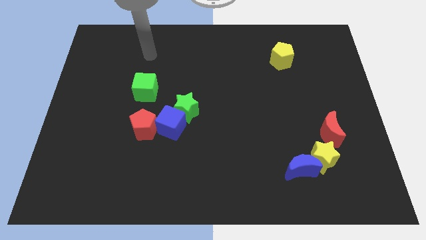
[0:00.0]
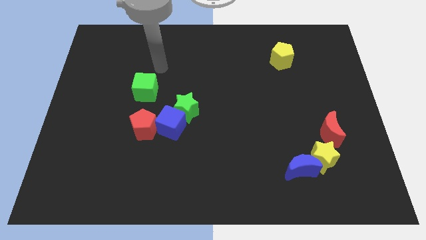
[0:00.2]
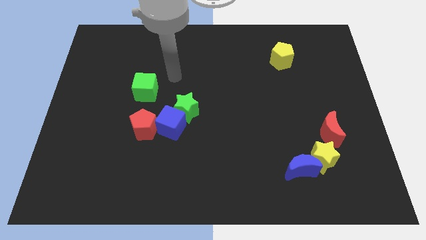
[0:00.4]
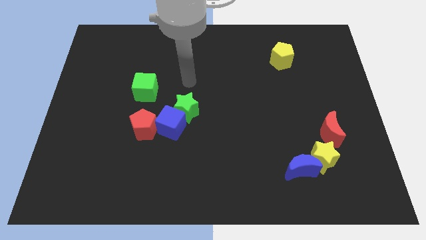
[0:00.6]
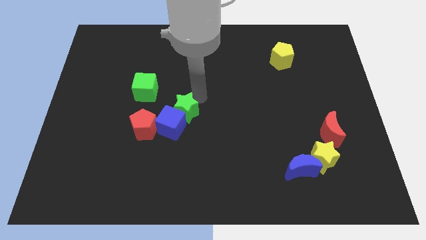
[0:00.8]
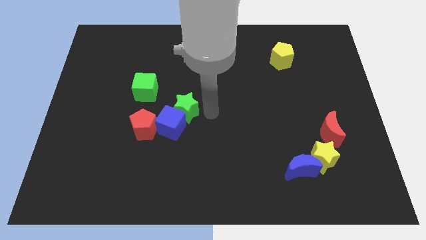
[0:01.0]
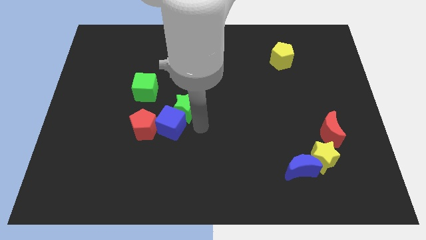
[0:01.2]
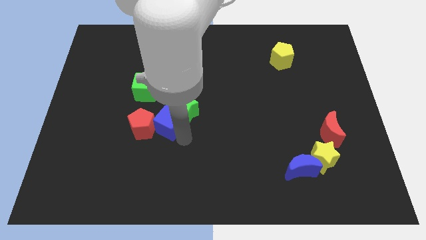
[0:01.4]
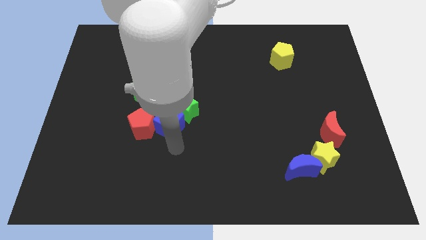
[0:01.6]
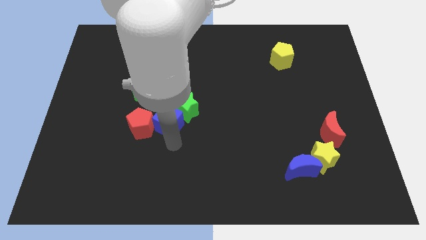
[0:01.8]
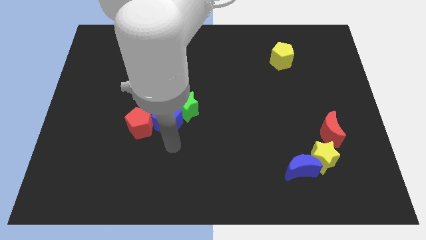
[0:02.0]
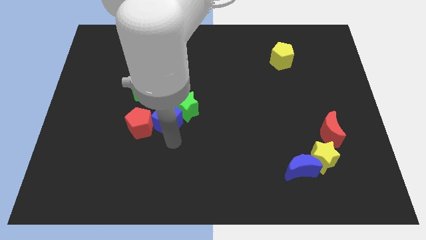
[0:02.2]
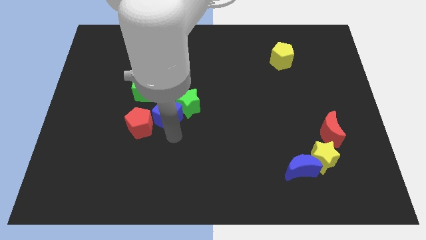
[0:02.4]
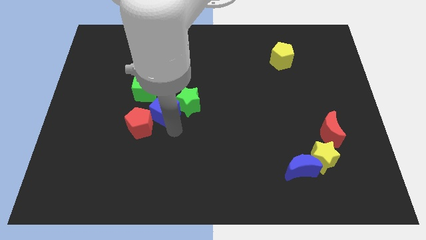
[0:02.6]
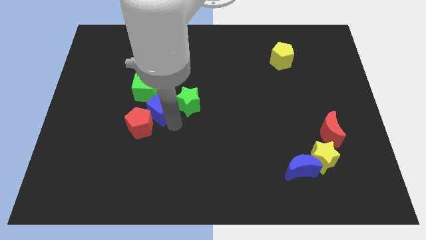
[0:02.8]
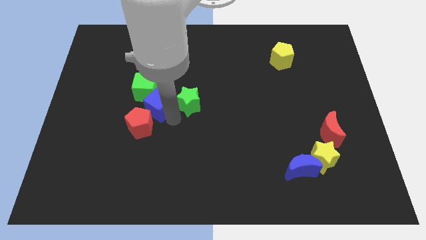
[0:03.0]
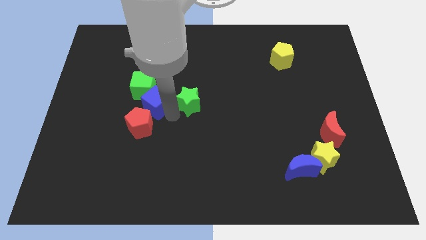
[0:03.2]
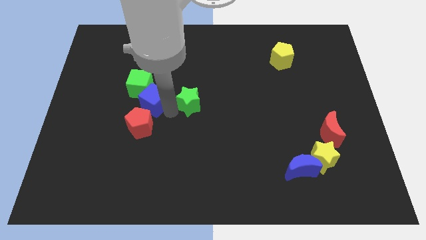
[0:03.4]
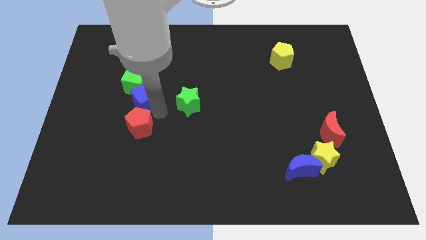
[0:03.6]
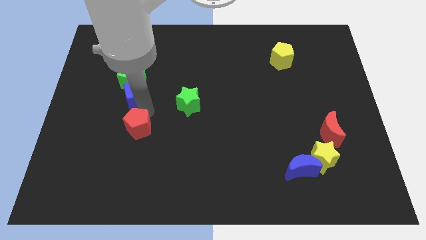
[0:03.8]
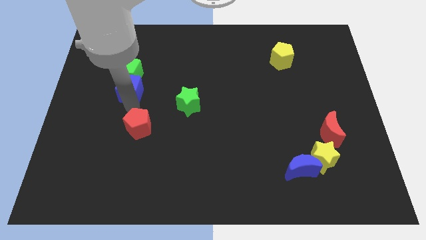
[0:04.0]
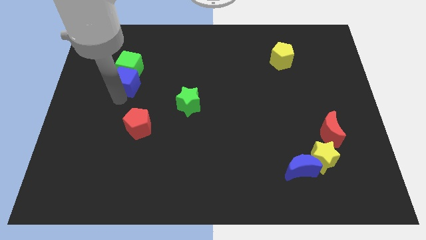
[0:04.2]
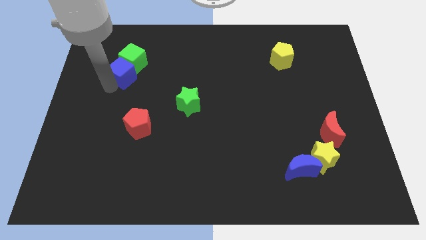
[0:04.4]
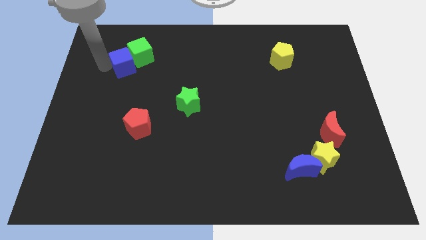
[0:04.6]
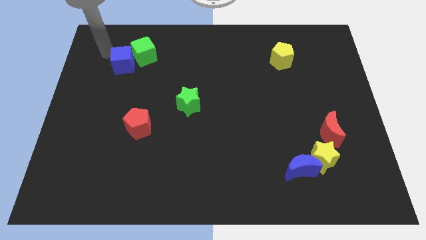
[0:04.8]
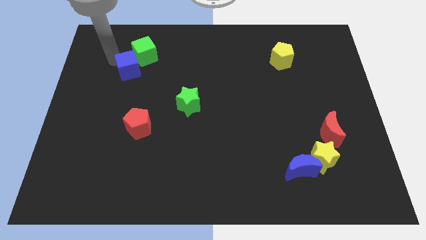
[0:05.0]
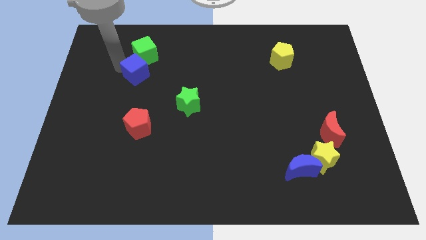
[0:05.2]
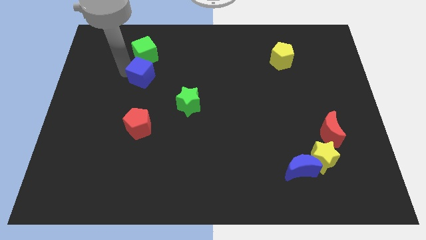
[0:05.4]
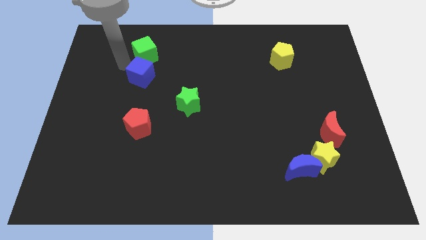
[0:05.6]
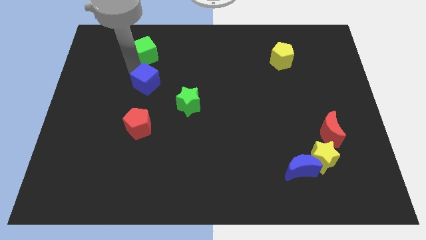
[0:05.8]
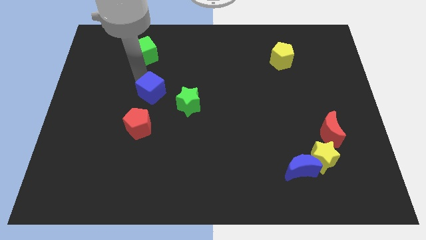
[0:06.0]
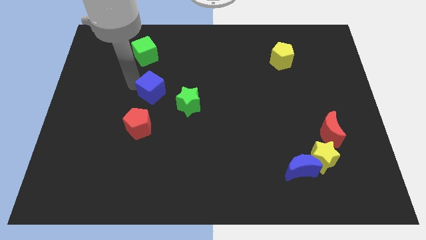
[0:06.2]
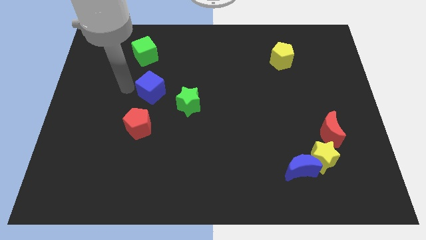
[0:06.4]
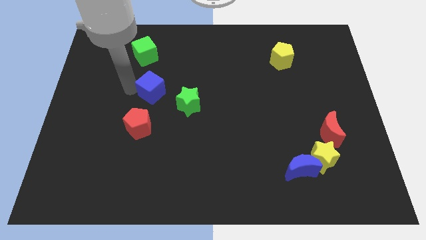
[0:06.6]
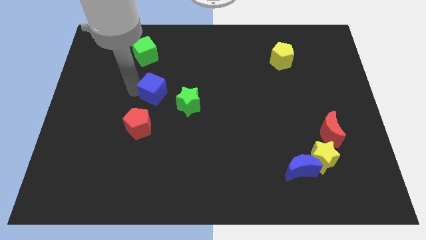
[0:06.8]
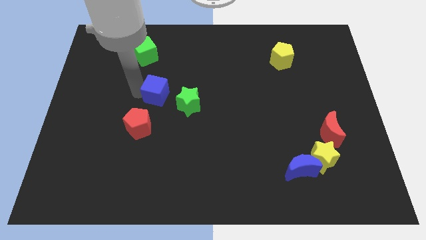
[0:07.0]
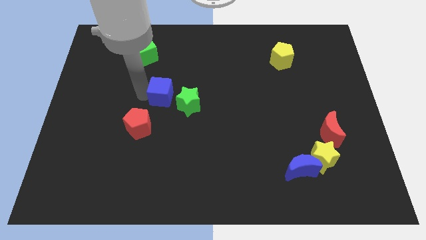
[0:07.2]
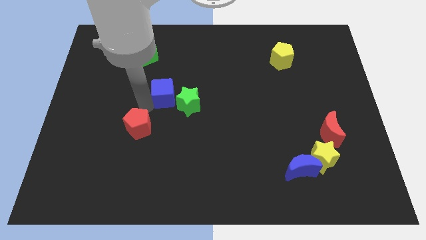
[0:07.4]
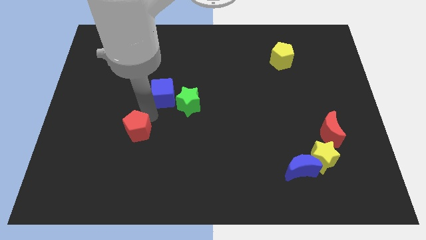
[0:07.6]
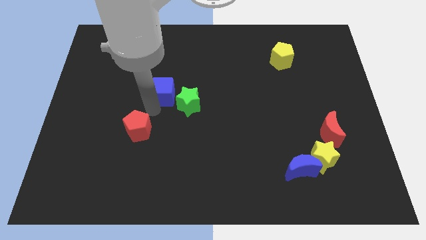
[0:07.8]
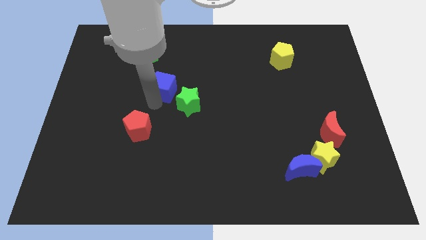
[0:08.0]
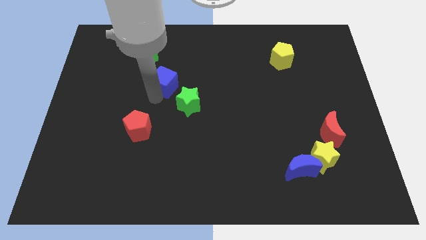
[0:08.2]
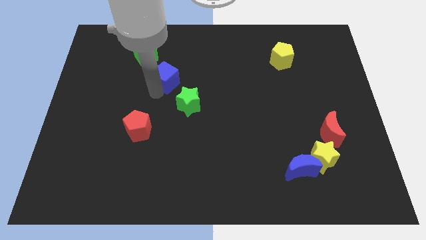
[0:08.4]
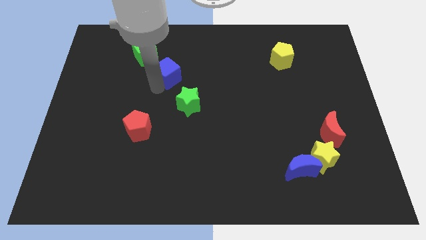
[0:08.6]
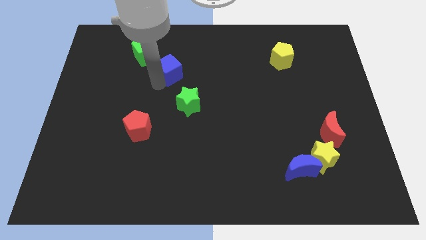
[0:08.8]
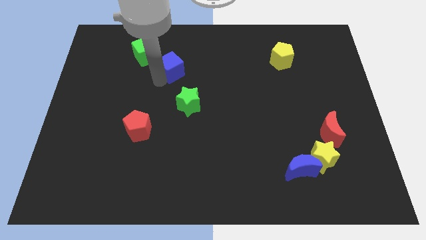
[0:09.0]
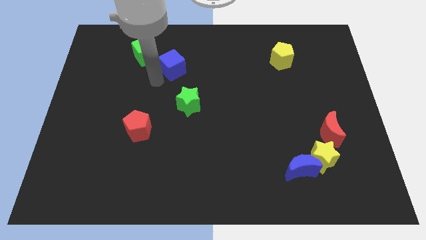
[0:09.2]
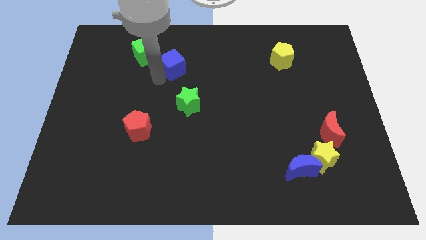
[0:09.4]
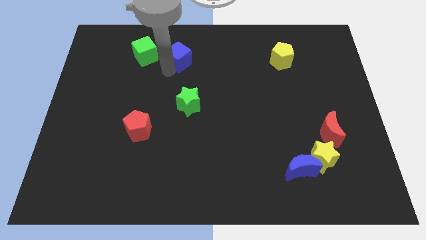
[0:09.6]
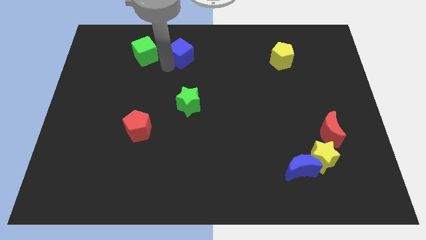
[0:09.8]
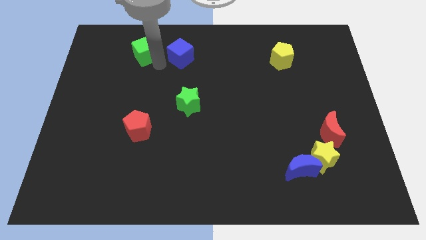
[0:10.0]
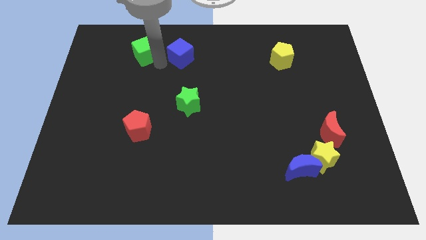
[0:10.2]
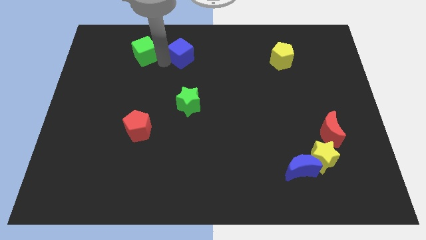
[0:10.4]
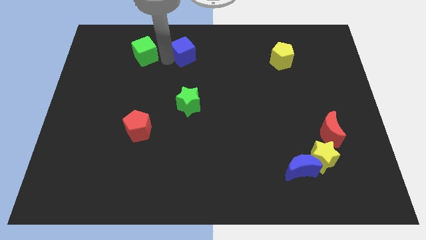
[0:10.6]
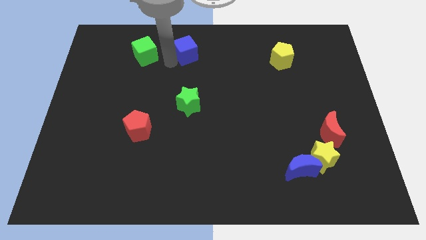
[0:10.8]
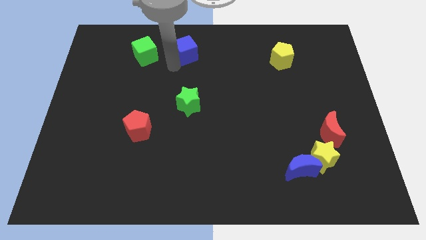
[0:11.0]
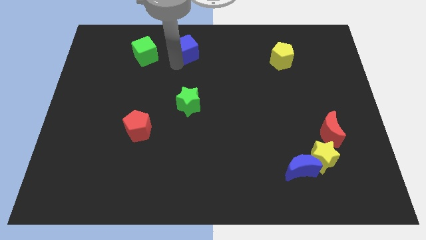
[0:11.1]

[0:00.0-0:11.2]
slide the blue cube to the top side

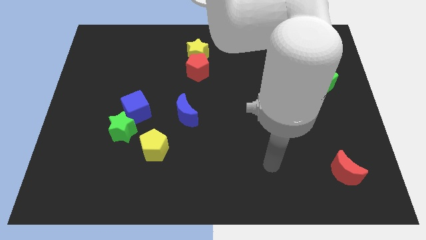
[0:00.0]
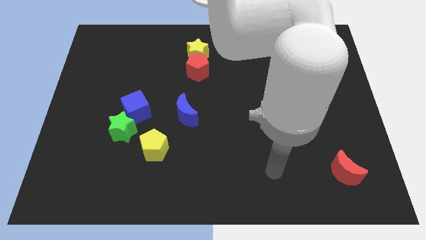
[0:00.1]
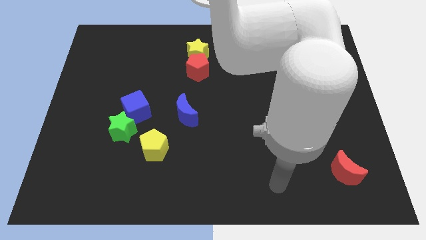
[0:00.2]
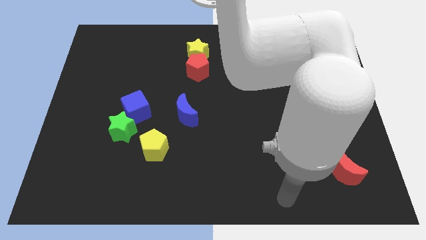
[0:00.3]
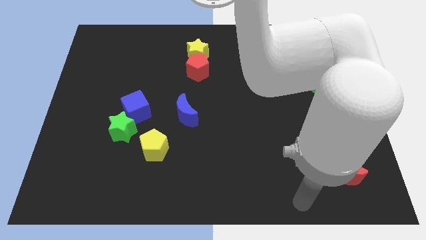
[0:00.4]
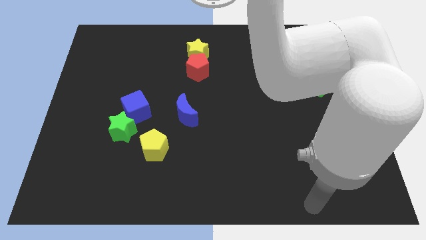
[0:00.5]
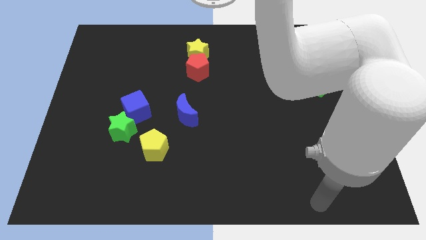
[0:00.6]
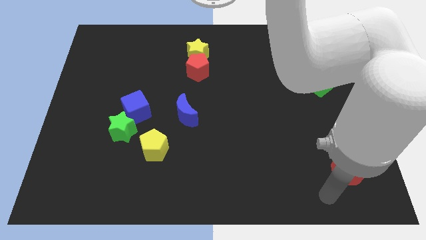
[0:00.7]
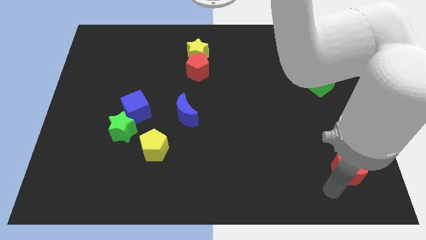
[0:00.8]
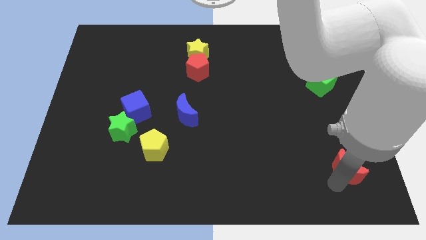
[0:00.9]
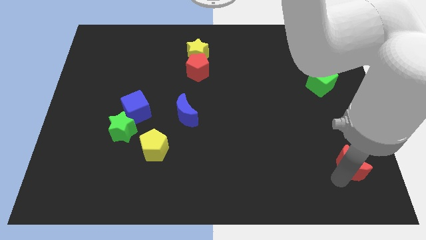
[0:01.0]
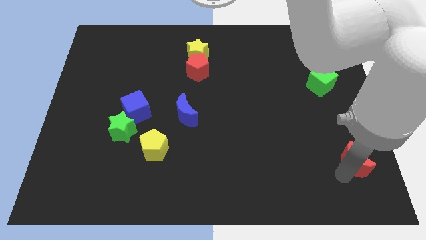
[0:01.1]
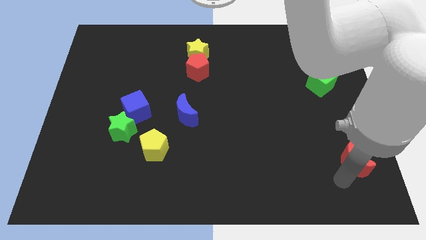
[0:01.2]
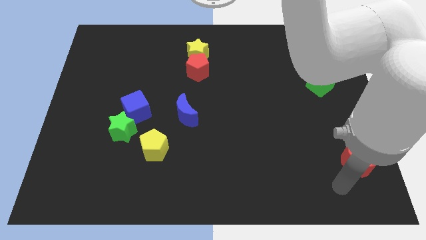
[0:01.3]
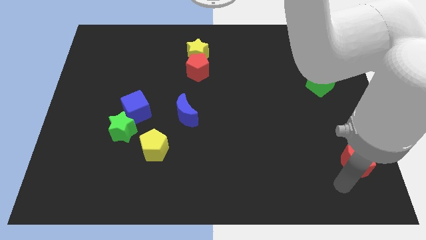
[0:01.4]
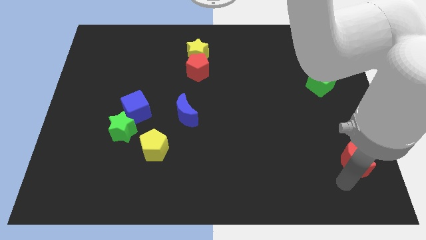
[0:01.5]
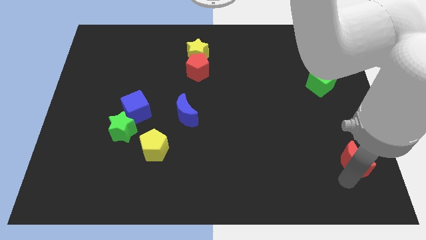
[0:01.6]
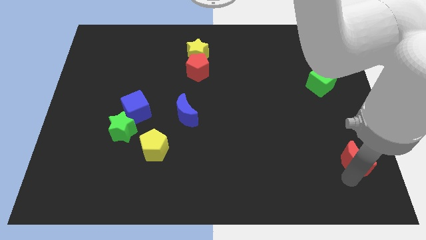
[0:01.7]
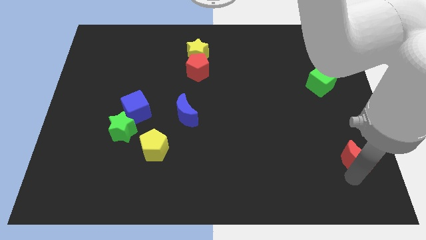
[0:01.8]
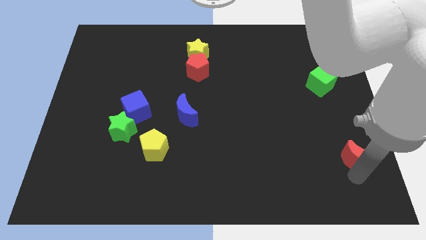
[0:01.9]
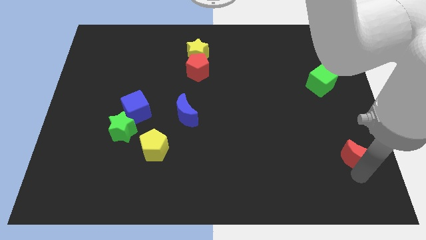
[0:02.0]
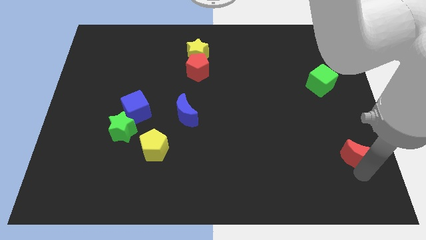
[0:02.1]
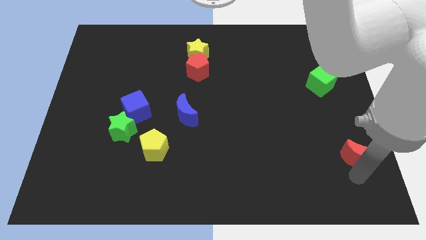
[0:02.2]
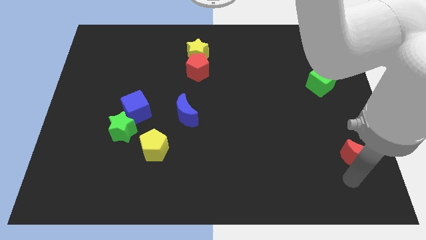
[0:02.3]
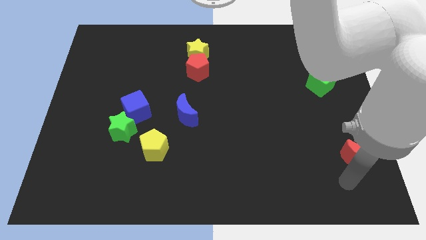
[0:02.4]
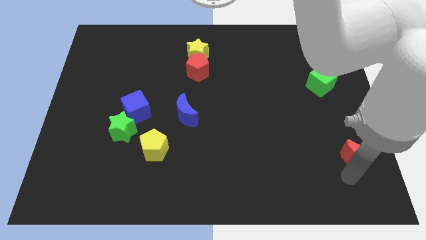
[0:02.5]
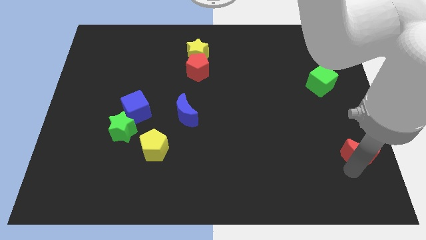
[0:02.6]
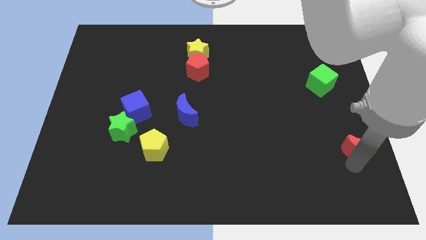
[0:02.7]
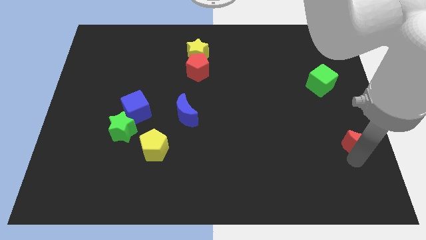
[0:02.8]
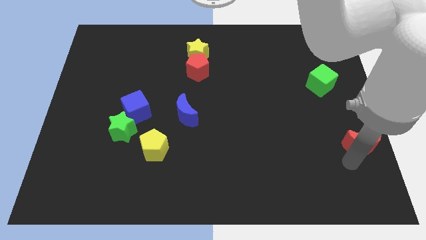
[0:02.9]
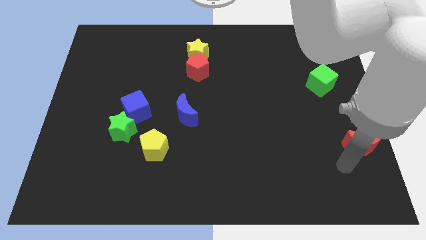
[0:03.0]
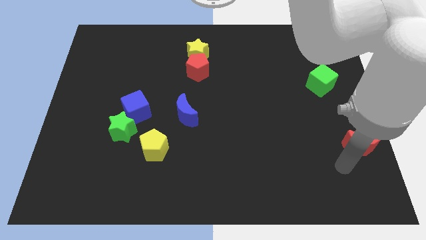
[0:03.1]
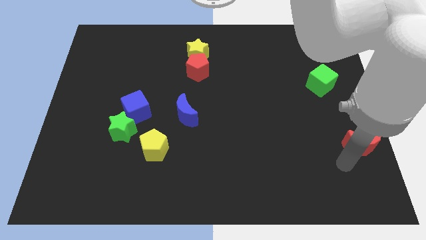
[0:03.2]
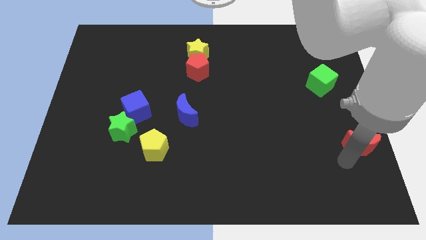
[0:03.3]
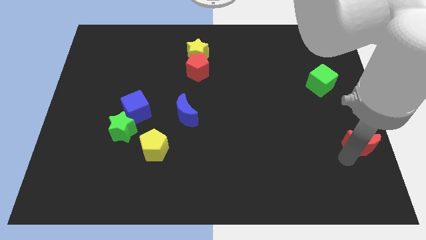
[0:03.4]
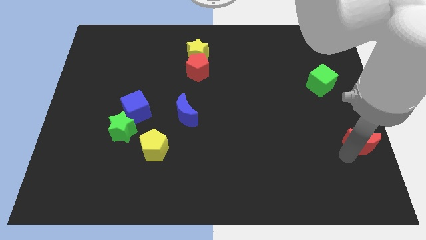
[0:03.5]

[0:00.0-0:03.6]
push the red moon to the center right
